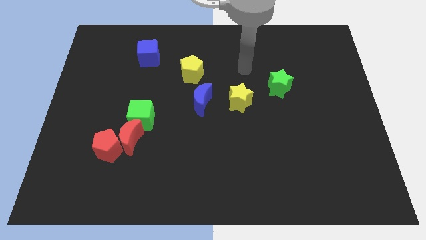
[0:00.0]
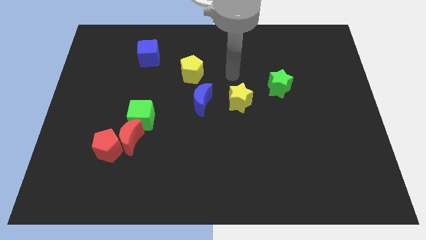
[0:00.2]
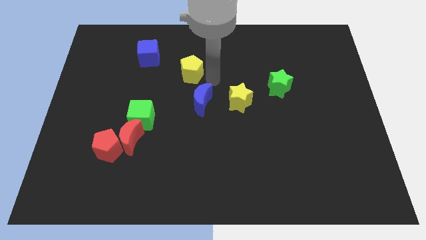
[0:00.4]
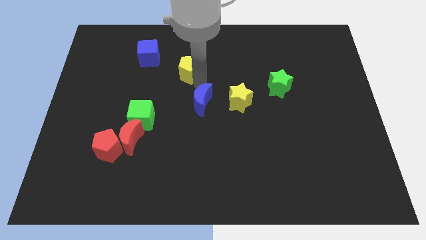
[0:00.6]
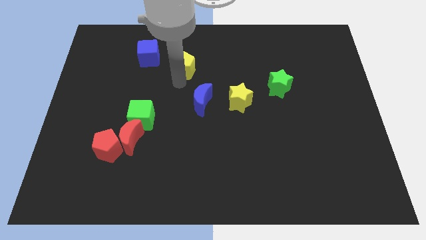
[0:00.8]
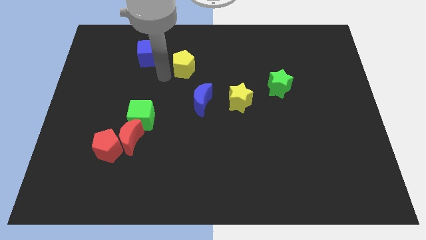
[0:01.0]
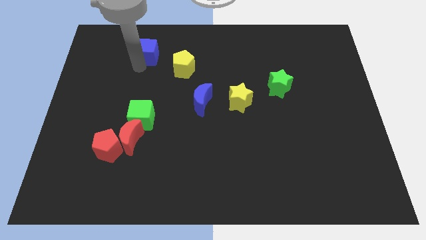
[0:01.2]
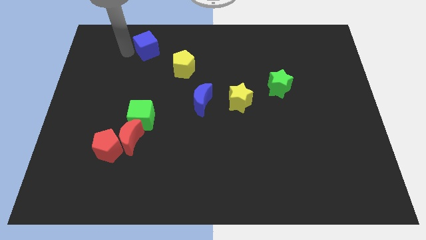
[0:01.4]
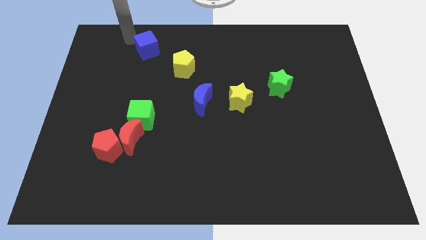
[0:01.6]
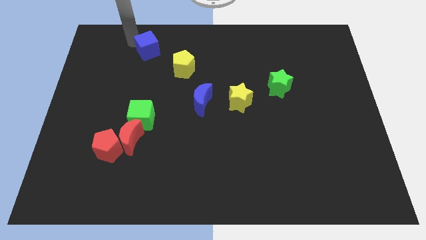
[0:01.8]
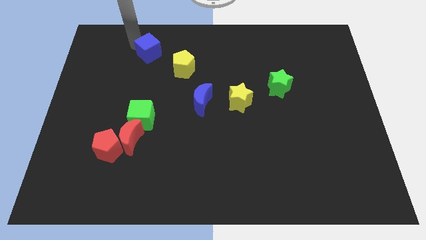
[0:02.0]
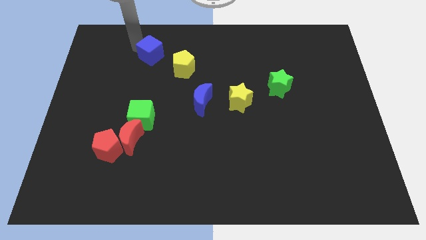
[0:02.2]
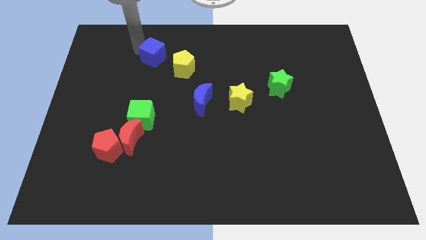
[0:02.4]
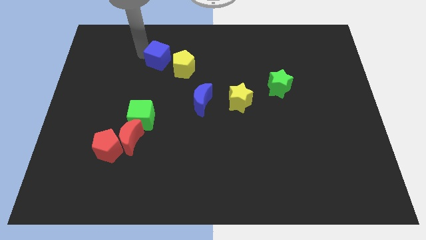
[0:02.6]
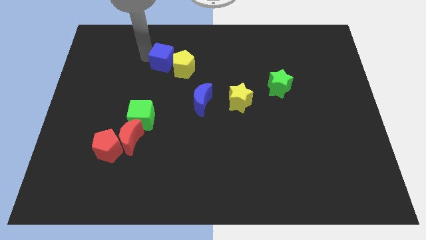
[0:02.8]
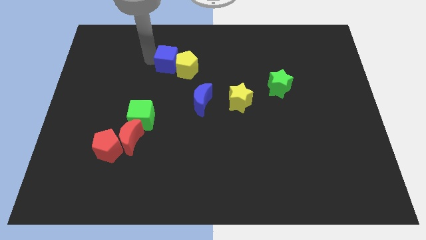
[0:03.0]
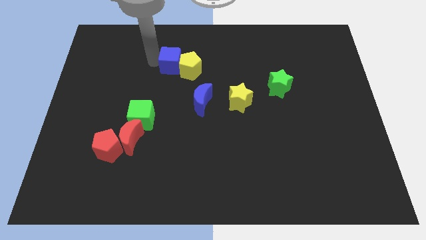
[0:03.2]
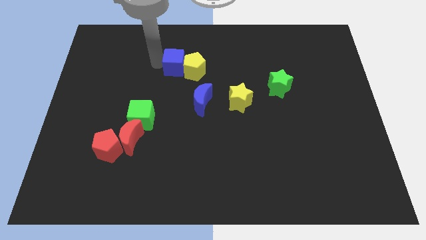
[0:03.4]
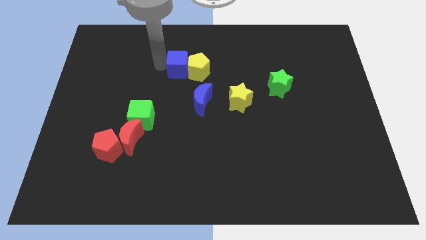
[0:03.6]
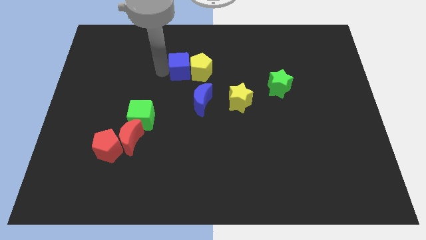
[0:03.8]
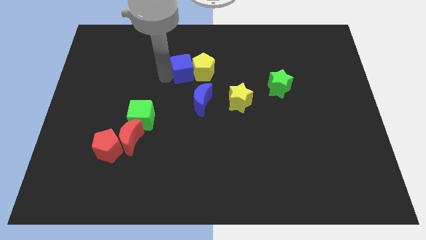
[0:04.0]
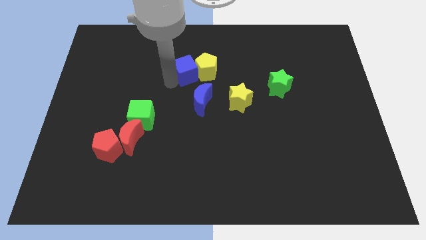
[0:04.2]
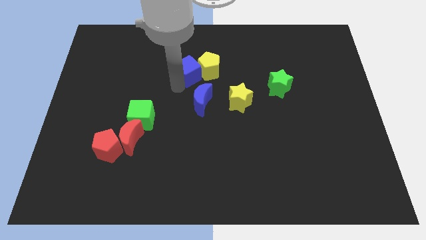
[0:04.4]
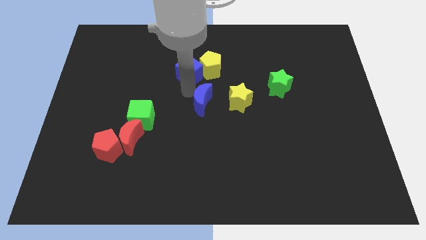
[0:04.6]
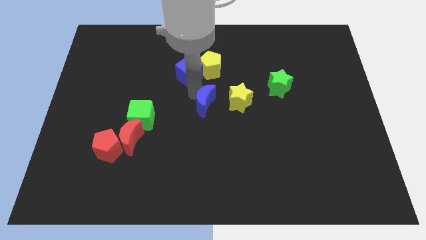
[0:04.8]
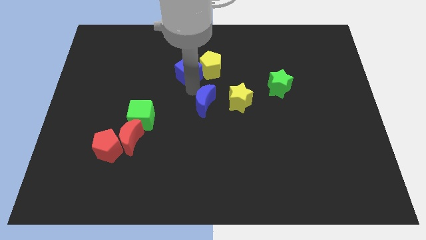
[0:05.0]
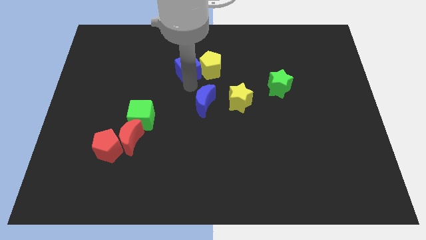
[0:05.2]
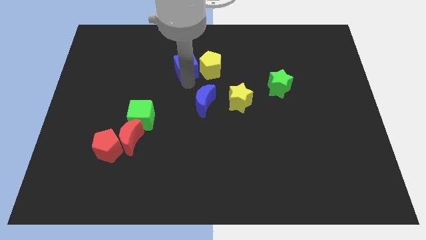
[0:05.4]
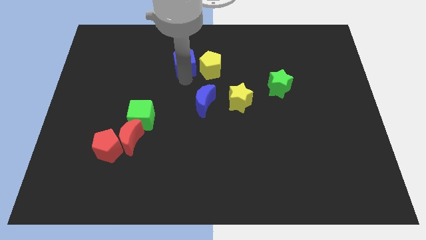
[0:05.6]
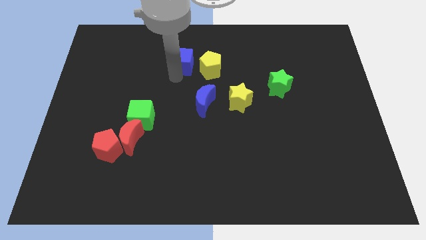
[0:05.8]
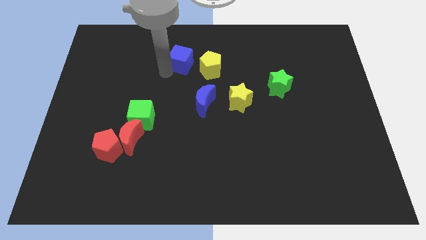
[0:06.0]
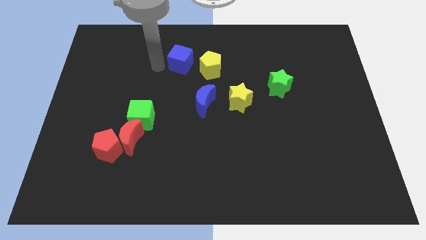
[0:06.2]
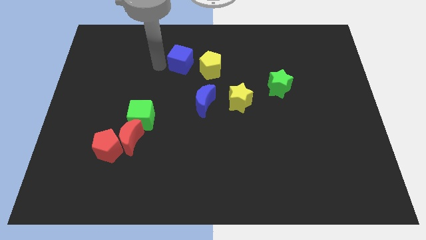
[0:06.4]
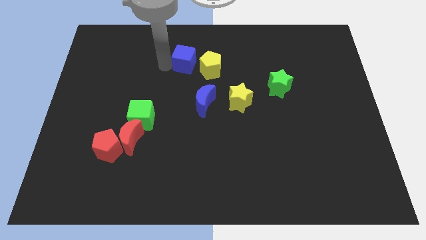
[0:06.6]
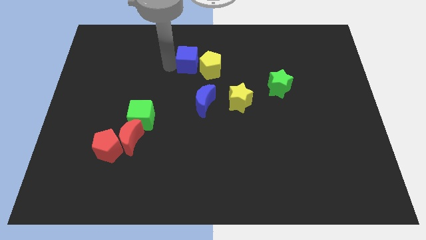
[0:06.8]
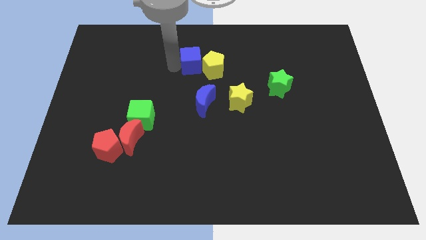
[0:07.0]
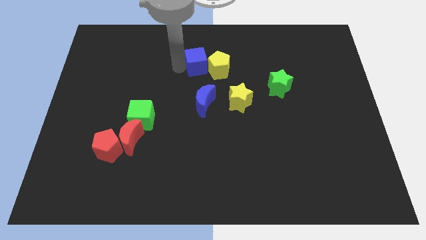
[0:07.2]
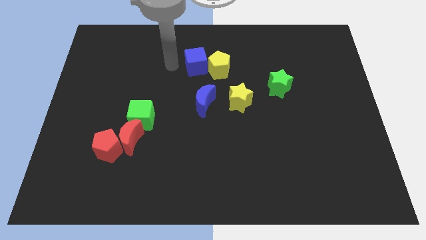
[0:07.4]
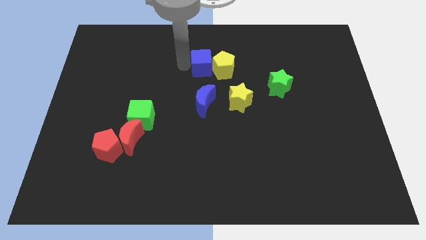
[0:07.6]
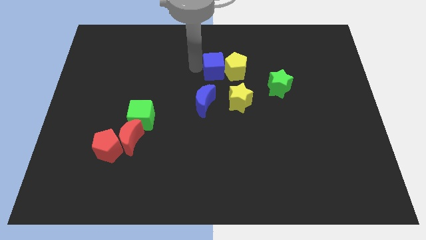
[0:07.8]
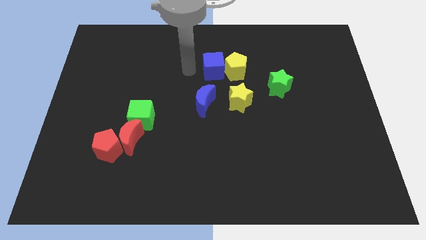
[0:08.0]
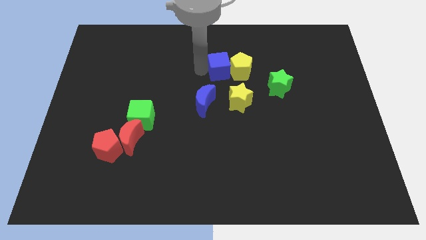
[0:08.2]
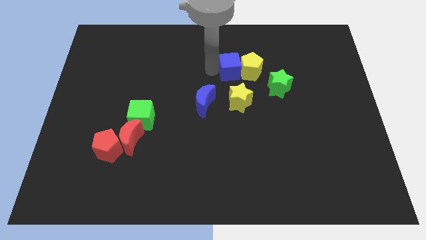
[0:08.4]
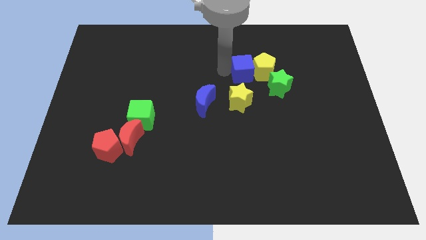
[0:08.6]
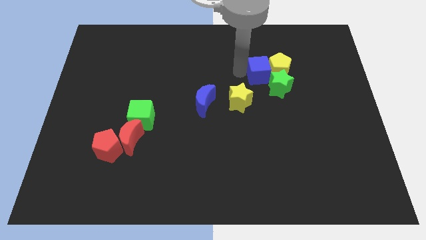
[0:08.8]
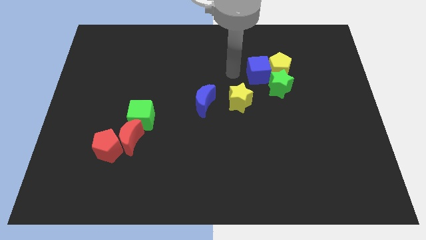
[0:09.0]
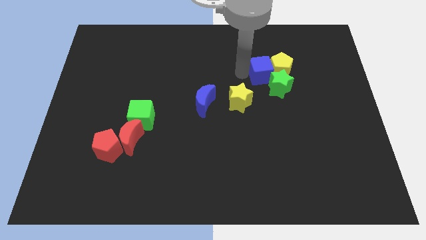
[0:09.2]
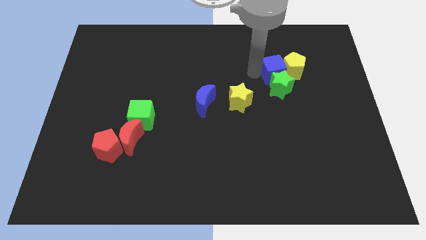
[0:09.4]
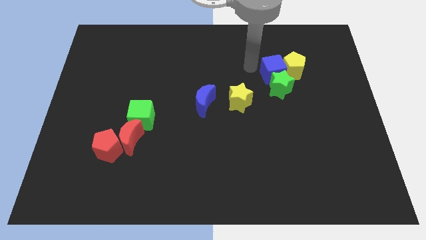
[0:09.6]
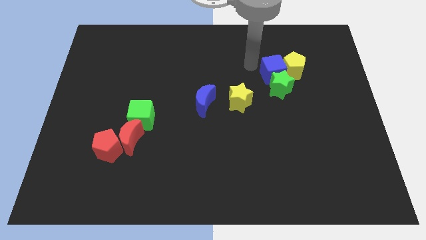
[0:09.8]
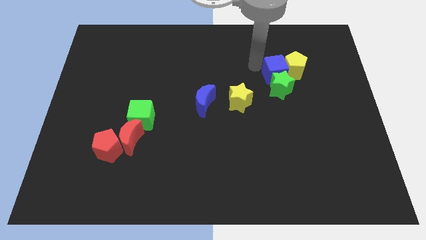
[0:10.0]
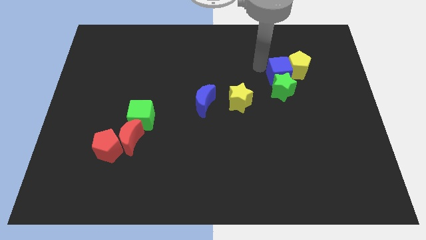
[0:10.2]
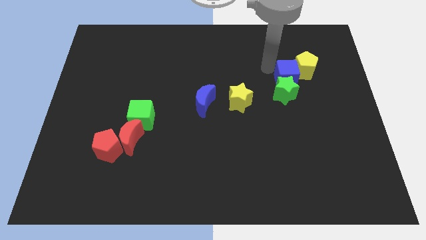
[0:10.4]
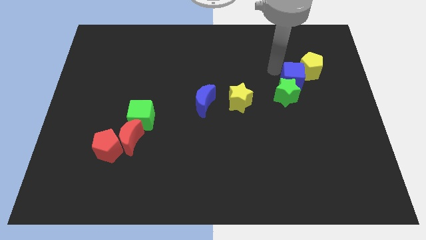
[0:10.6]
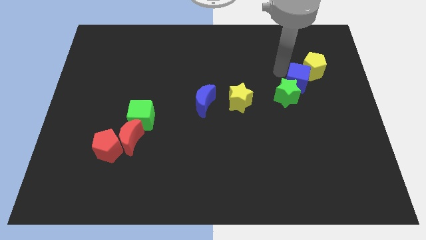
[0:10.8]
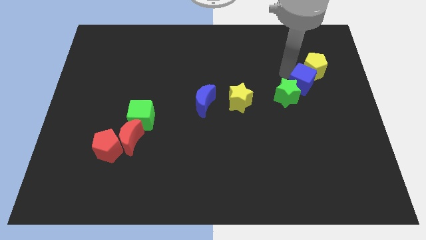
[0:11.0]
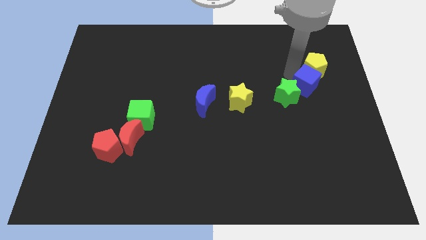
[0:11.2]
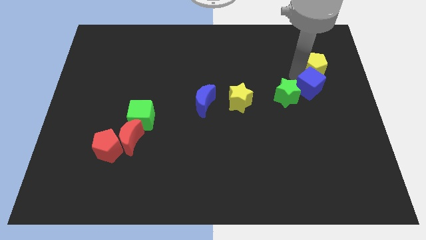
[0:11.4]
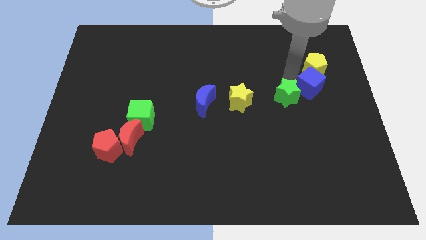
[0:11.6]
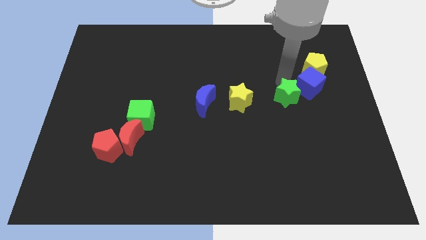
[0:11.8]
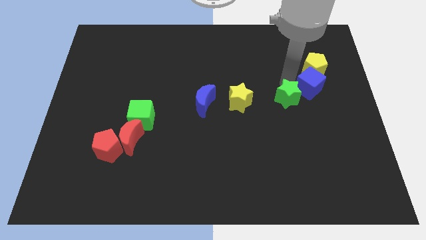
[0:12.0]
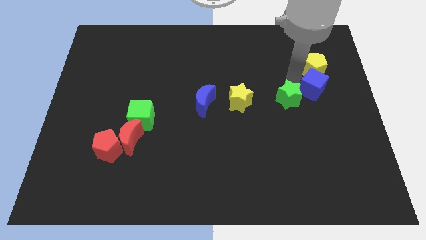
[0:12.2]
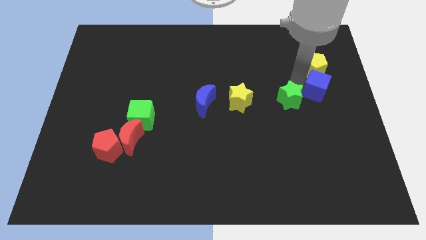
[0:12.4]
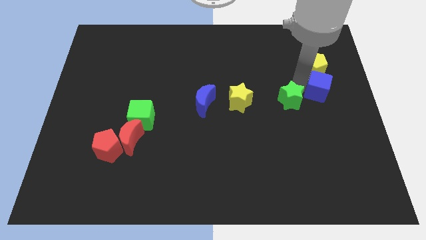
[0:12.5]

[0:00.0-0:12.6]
slide the blue cube to the center right
